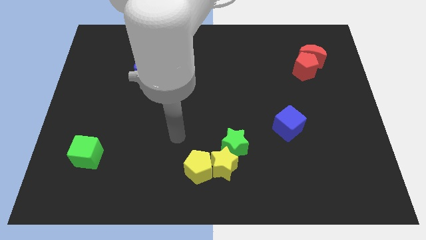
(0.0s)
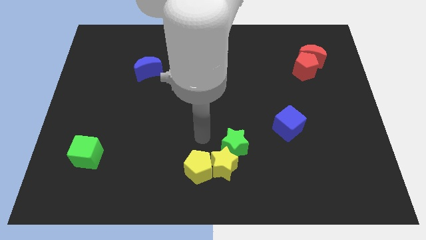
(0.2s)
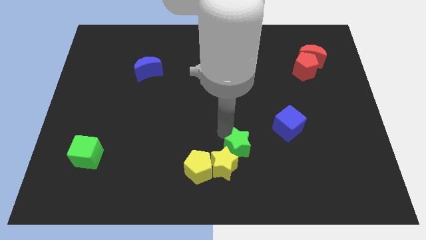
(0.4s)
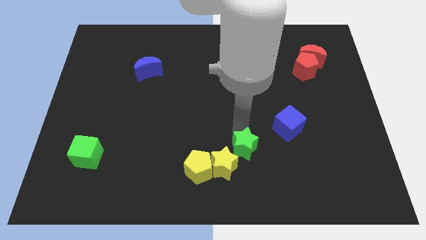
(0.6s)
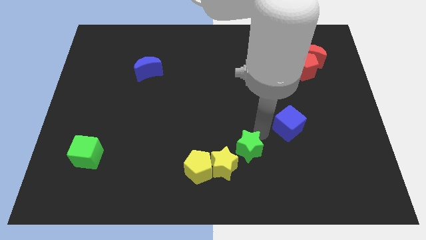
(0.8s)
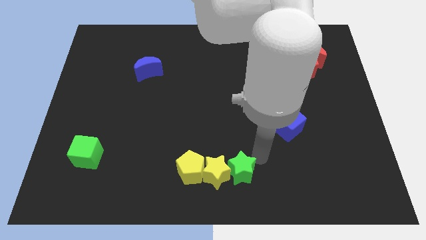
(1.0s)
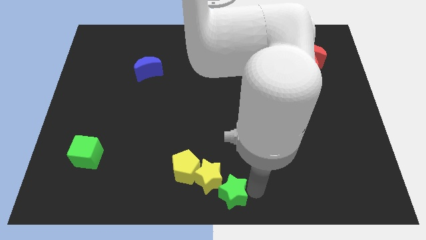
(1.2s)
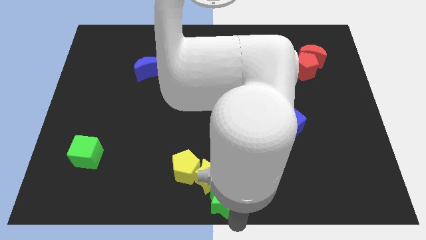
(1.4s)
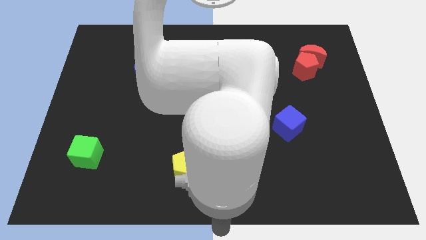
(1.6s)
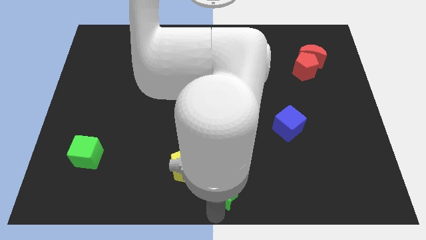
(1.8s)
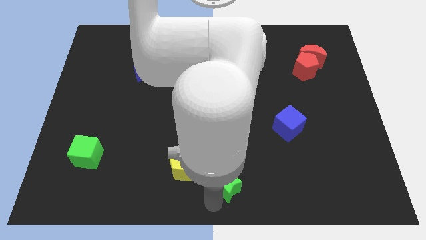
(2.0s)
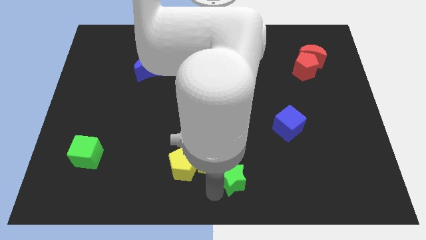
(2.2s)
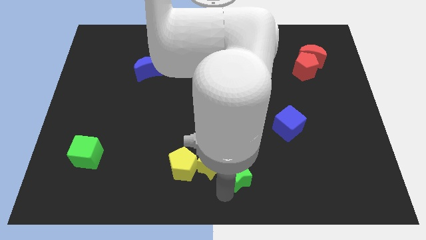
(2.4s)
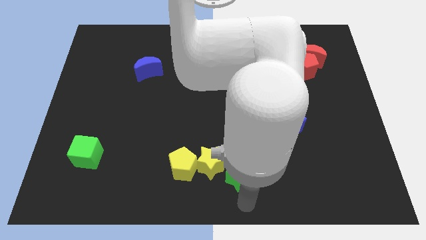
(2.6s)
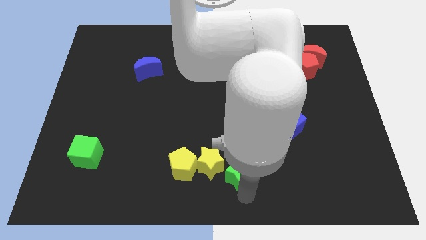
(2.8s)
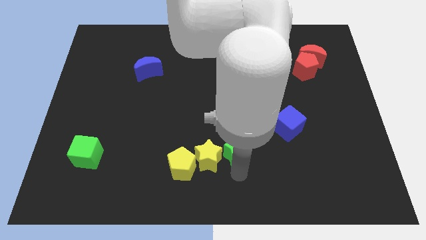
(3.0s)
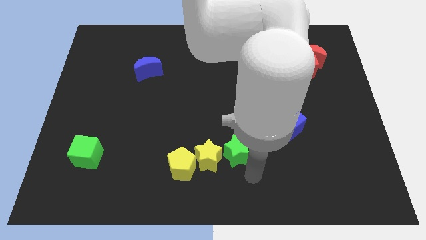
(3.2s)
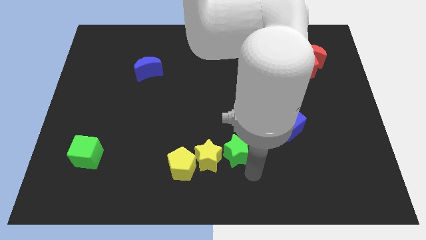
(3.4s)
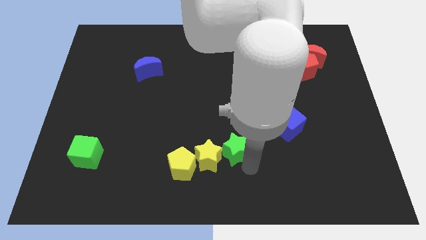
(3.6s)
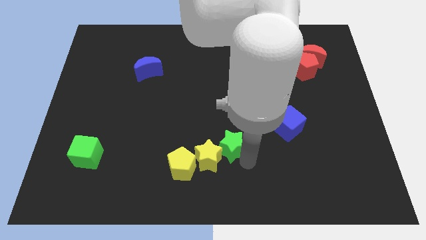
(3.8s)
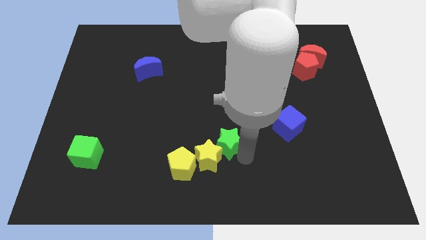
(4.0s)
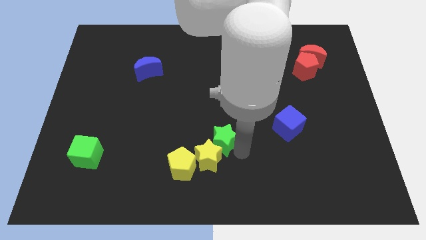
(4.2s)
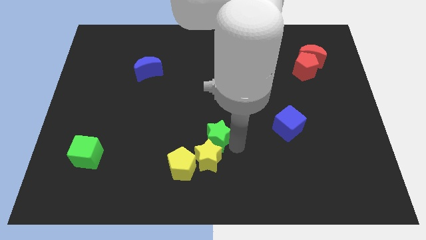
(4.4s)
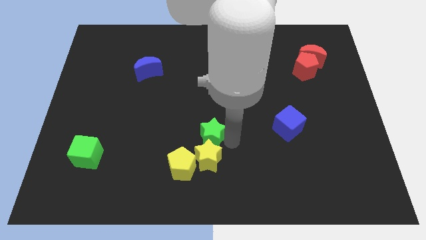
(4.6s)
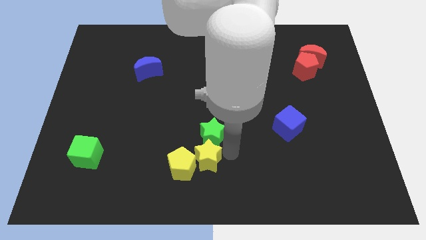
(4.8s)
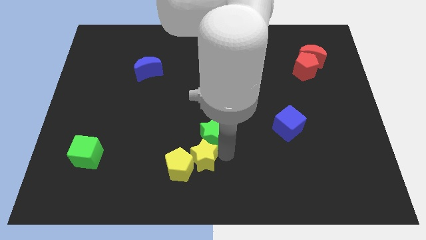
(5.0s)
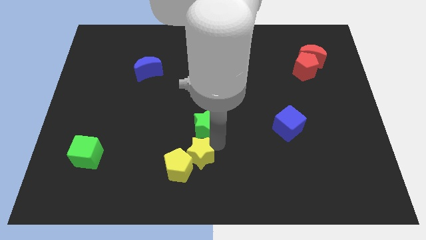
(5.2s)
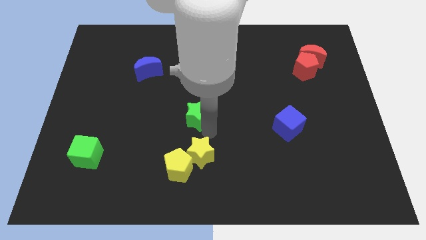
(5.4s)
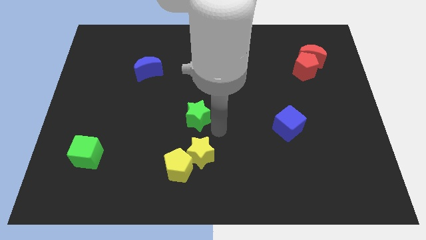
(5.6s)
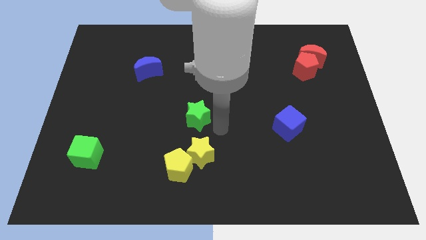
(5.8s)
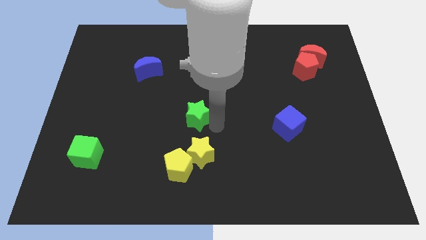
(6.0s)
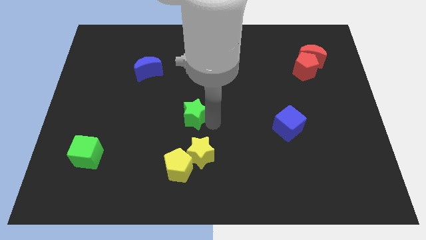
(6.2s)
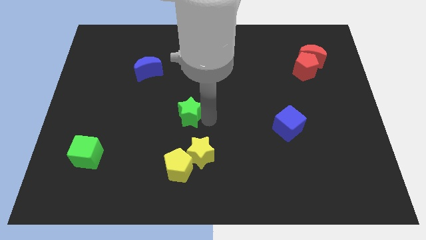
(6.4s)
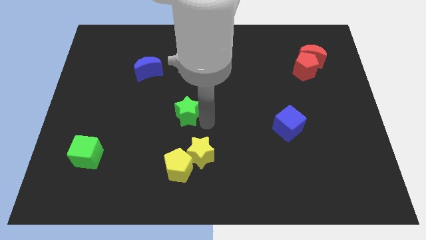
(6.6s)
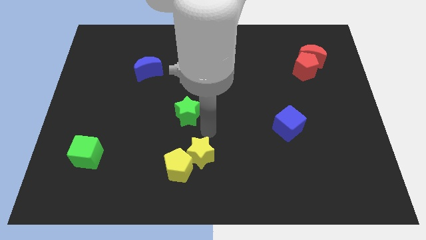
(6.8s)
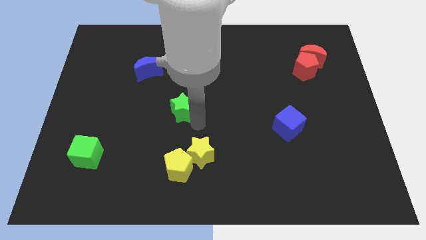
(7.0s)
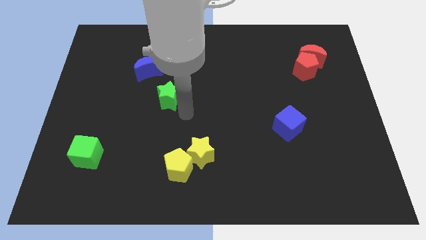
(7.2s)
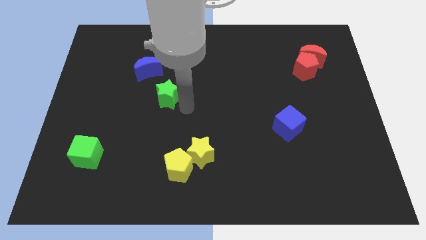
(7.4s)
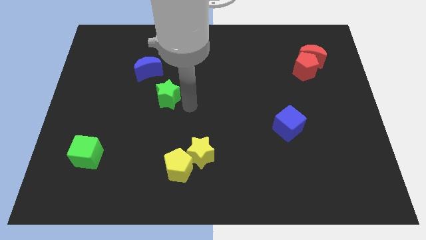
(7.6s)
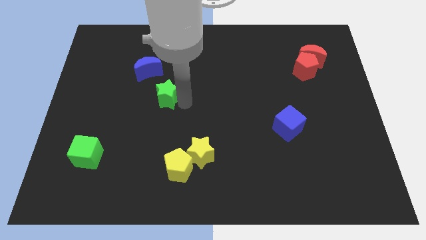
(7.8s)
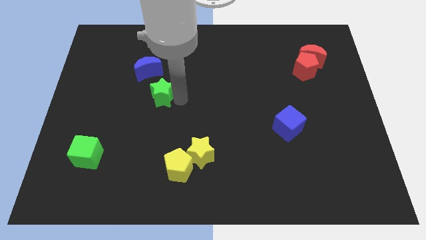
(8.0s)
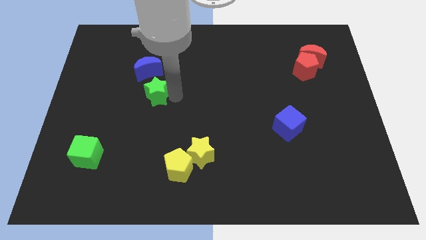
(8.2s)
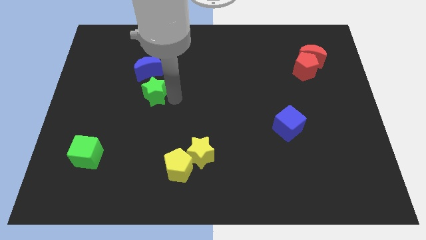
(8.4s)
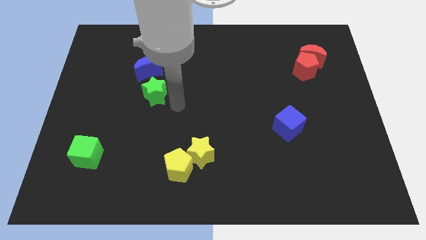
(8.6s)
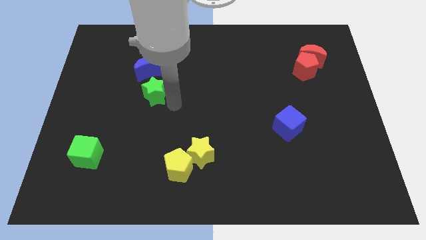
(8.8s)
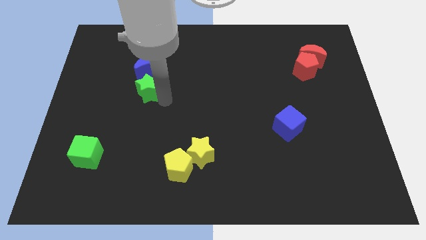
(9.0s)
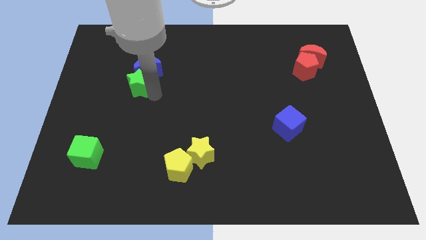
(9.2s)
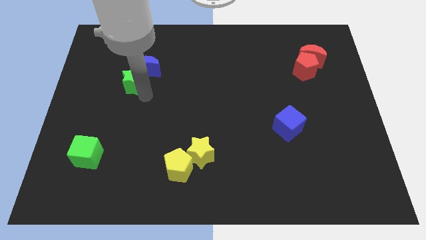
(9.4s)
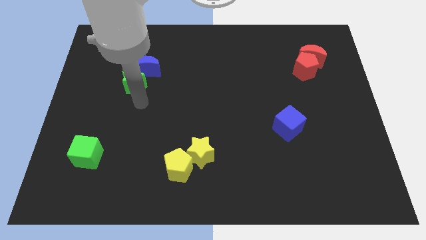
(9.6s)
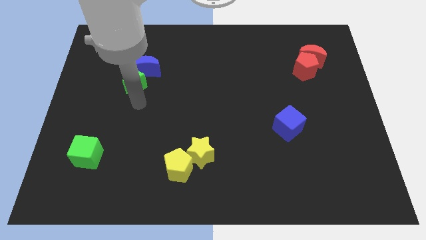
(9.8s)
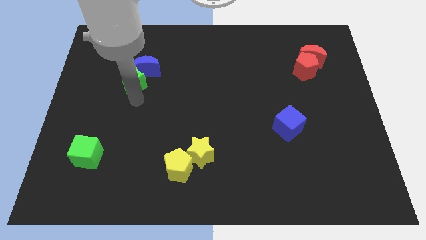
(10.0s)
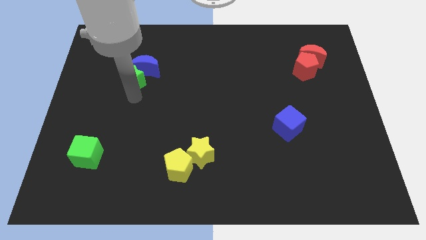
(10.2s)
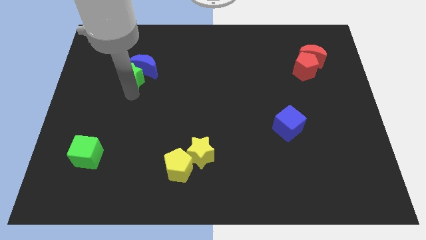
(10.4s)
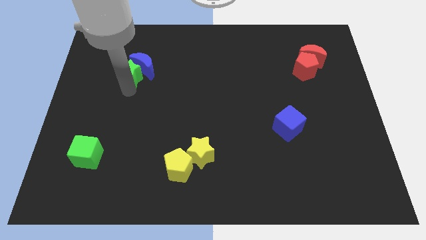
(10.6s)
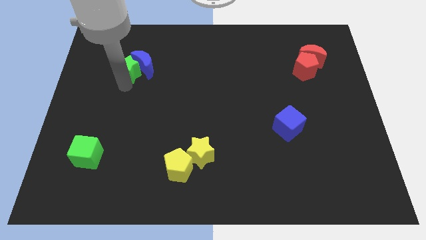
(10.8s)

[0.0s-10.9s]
push the green star diagonally up and to the left of the blue moon

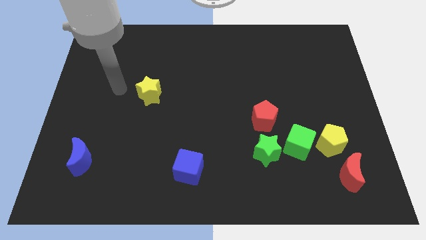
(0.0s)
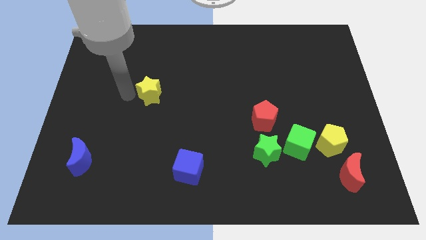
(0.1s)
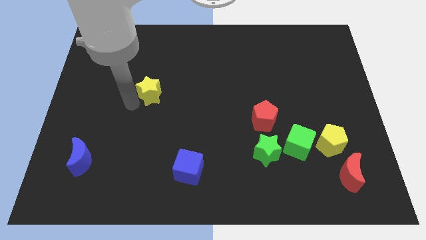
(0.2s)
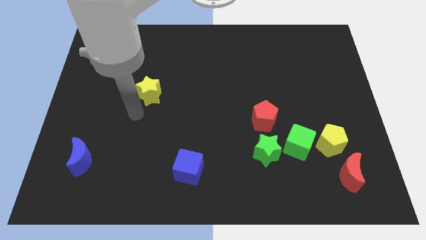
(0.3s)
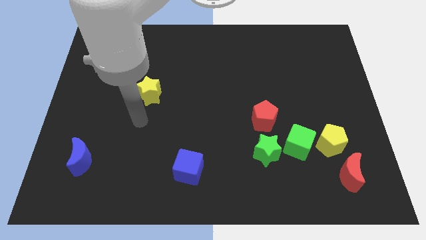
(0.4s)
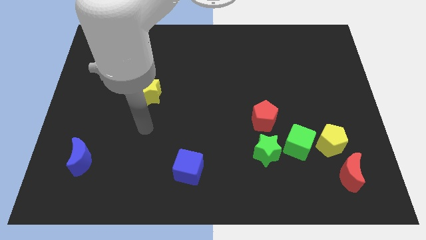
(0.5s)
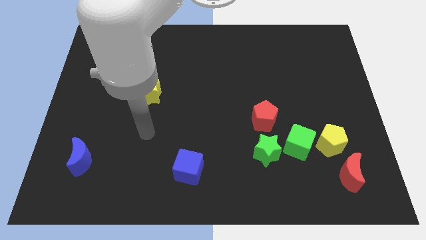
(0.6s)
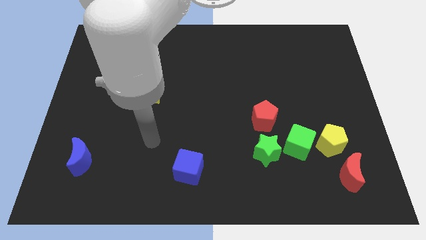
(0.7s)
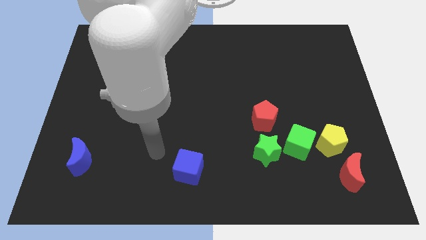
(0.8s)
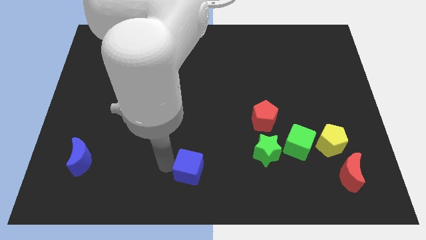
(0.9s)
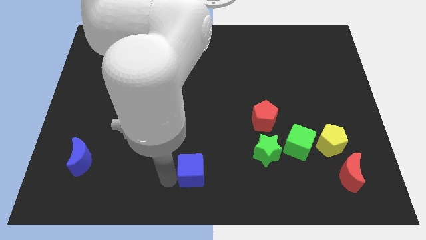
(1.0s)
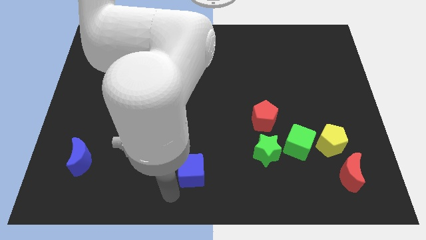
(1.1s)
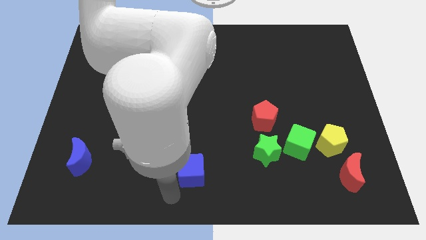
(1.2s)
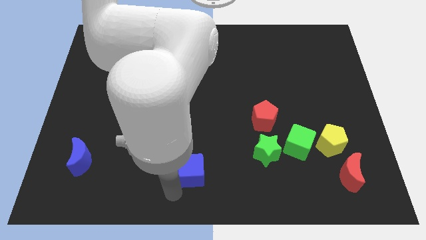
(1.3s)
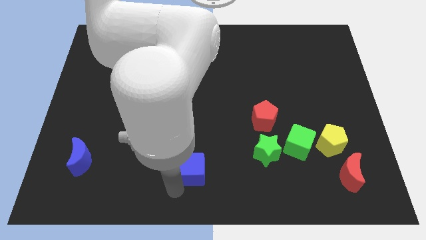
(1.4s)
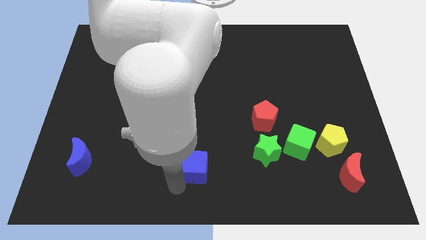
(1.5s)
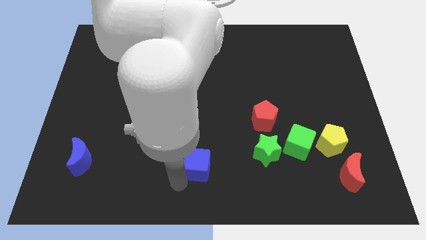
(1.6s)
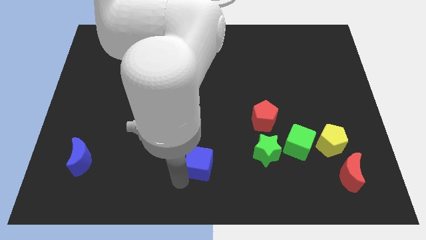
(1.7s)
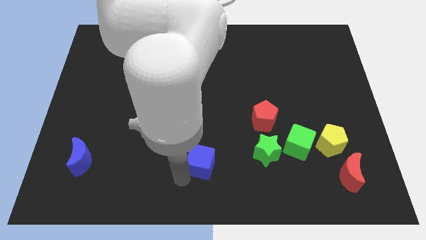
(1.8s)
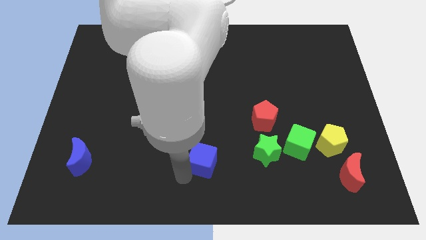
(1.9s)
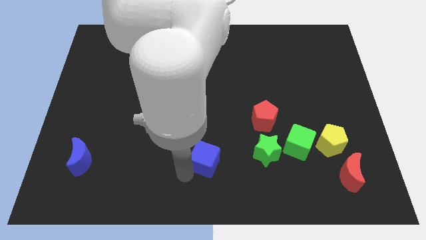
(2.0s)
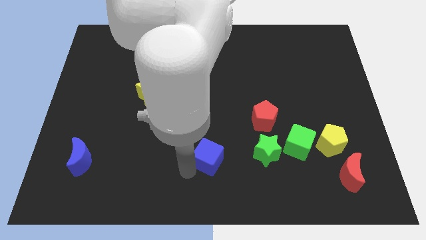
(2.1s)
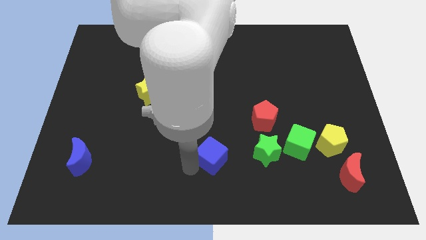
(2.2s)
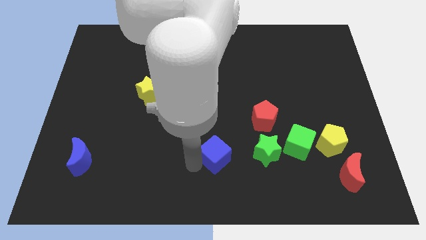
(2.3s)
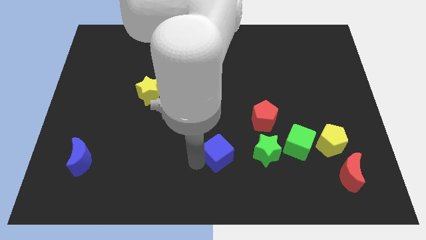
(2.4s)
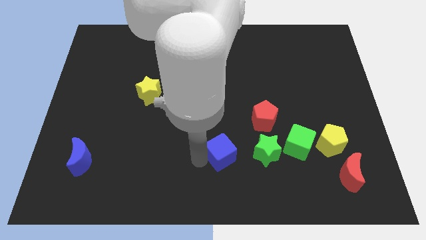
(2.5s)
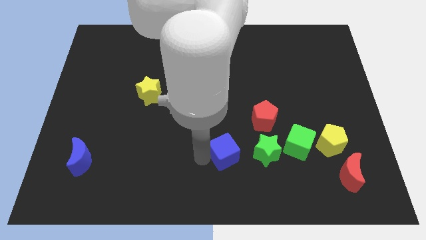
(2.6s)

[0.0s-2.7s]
move the blue cube to the bottom left of the red pentagon
